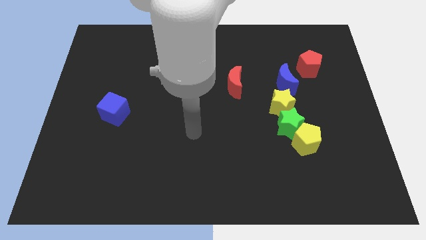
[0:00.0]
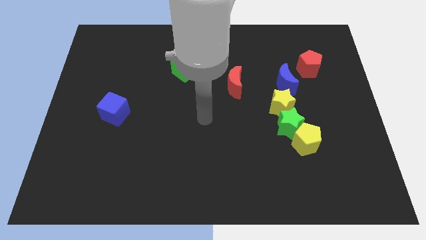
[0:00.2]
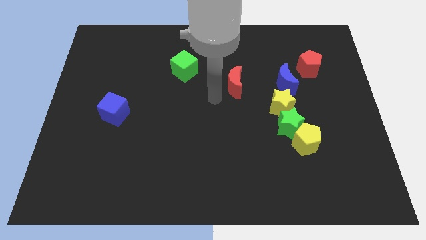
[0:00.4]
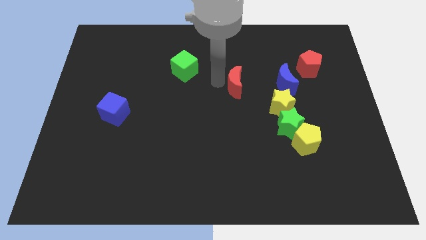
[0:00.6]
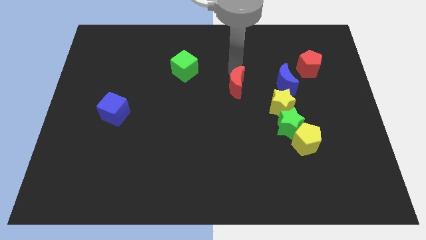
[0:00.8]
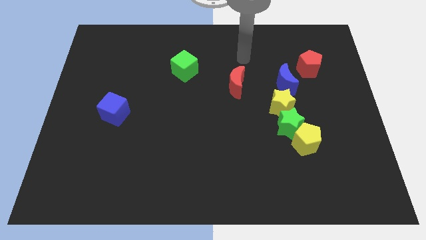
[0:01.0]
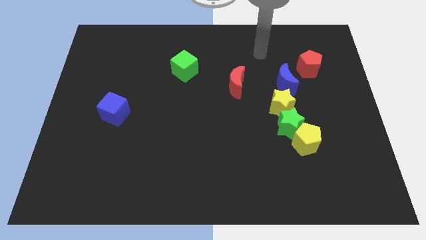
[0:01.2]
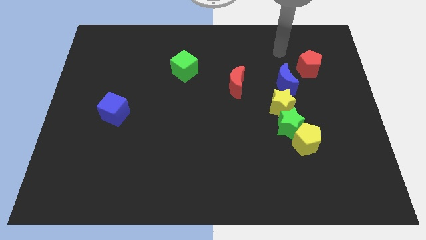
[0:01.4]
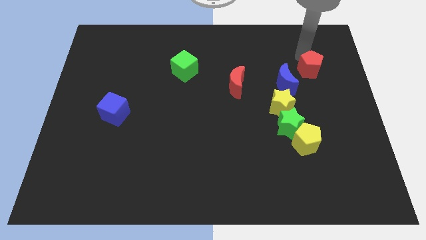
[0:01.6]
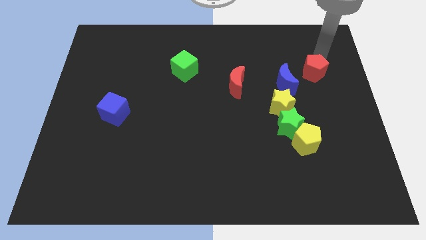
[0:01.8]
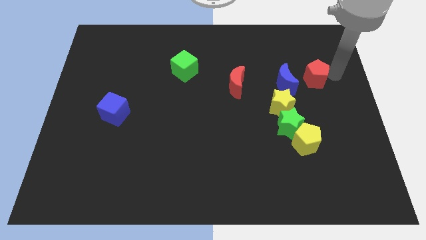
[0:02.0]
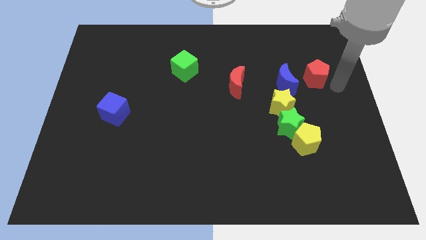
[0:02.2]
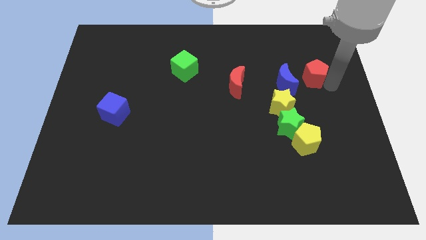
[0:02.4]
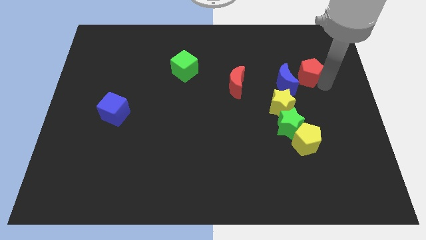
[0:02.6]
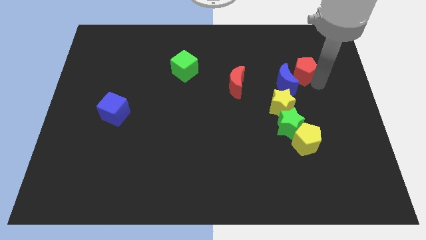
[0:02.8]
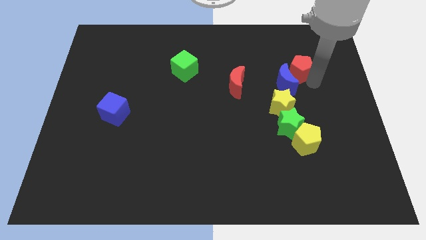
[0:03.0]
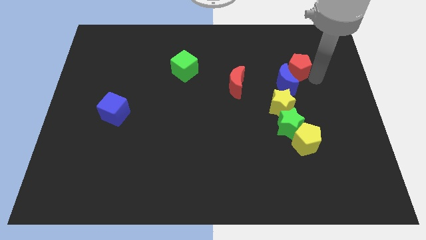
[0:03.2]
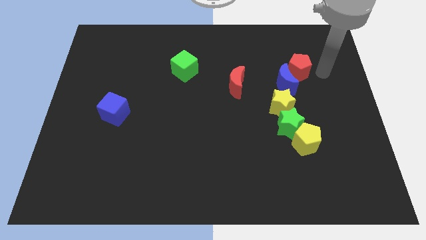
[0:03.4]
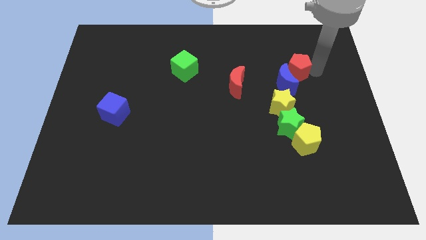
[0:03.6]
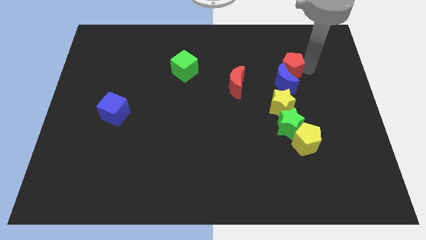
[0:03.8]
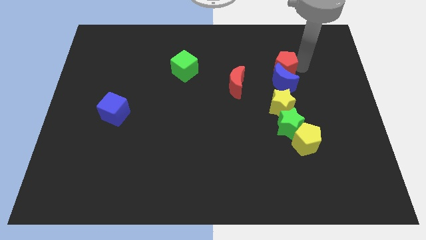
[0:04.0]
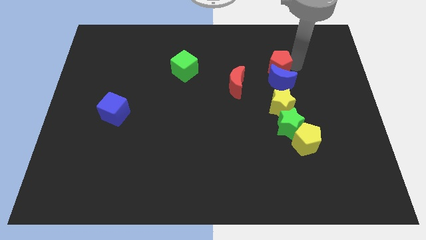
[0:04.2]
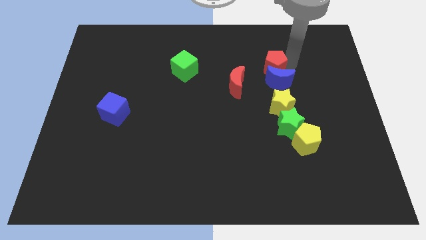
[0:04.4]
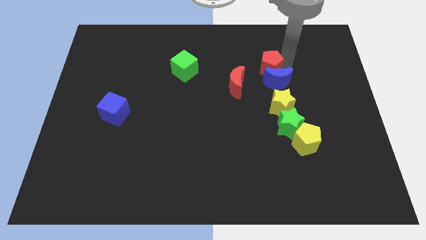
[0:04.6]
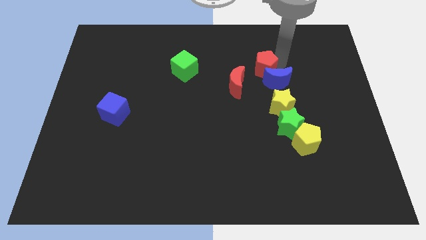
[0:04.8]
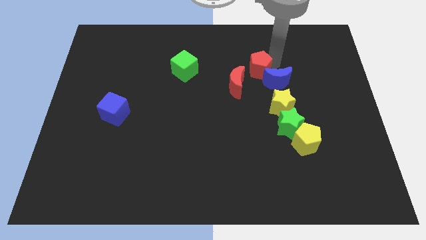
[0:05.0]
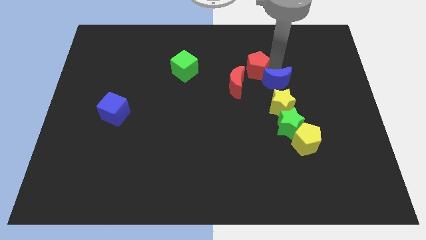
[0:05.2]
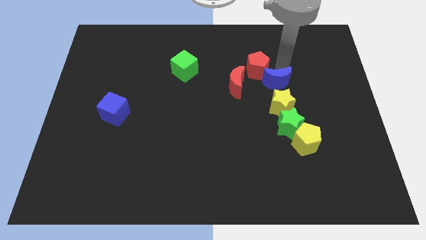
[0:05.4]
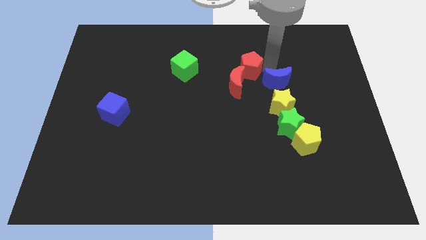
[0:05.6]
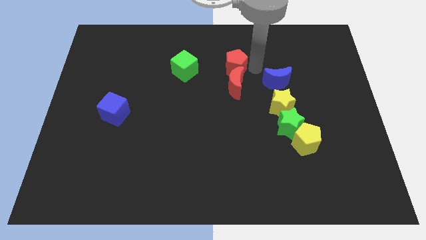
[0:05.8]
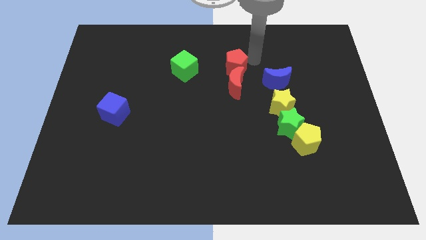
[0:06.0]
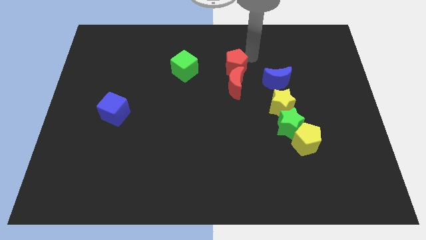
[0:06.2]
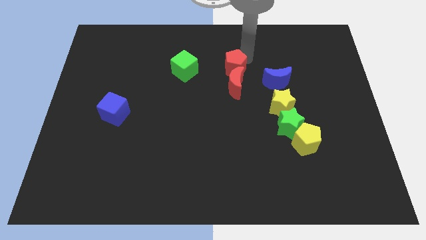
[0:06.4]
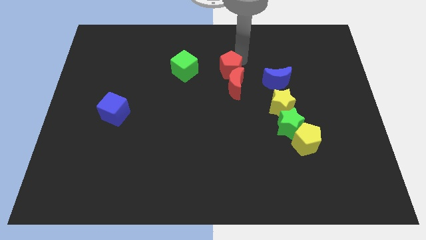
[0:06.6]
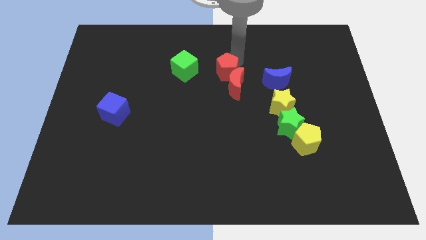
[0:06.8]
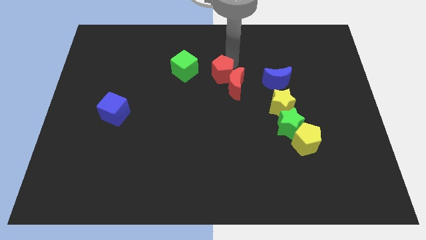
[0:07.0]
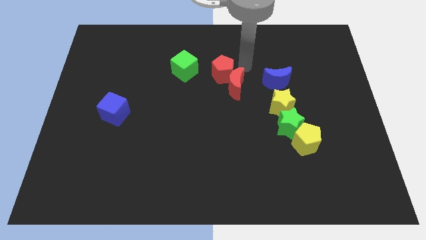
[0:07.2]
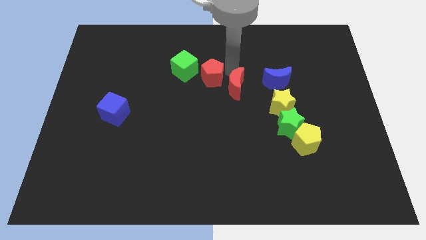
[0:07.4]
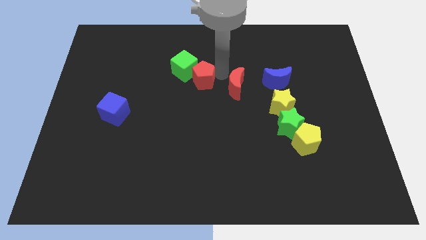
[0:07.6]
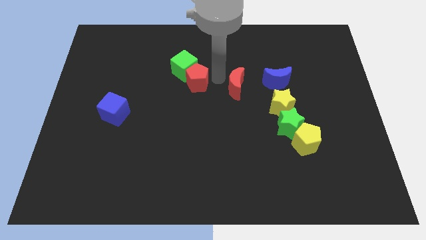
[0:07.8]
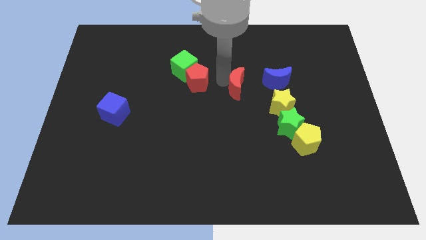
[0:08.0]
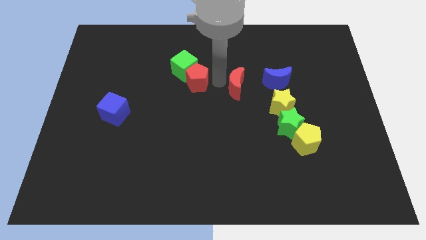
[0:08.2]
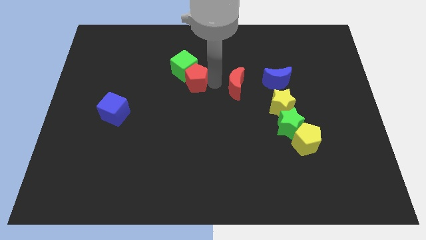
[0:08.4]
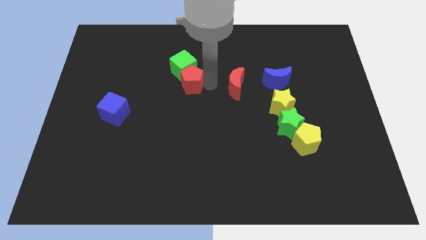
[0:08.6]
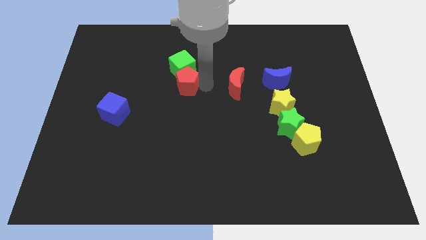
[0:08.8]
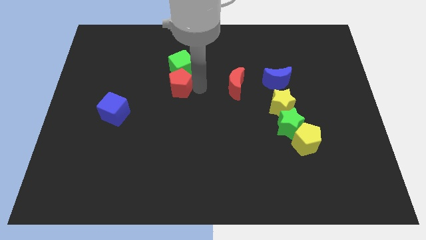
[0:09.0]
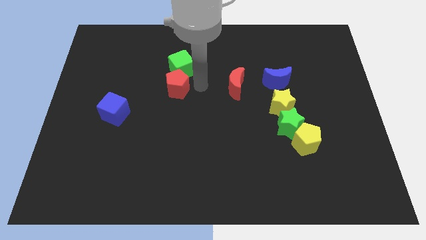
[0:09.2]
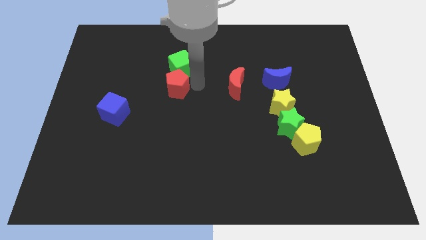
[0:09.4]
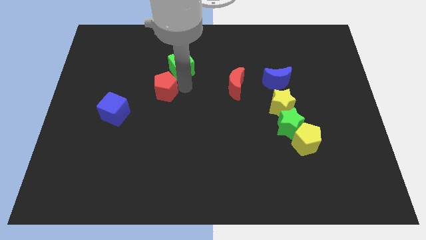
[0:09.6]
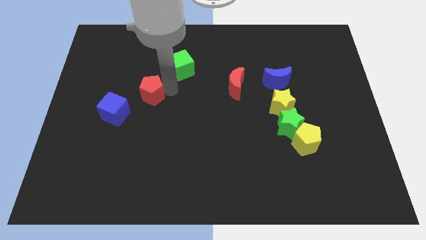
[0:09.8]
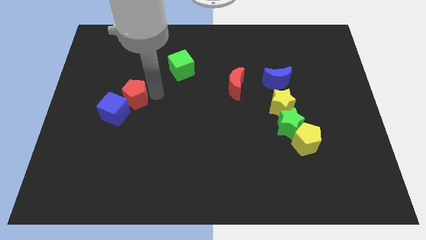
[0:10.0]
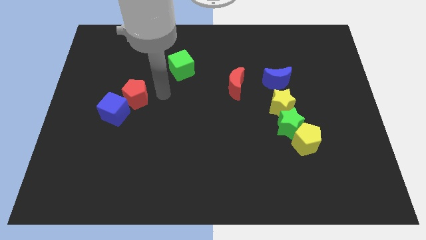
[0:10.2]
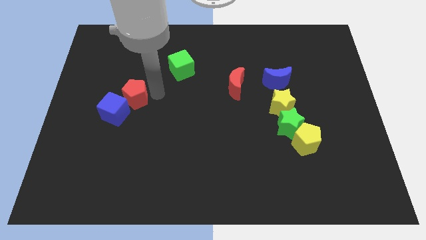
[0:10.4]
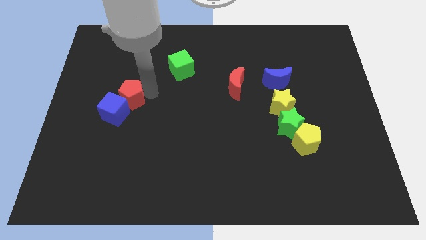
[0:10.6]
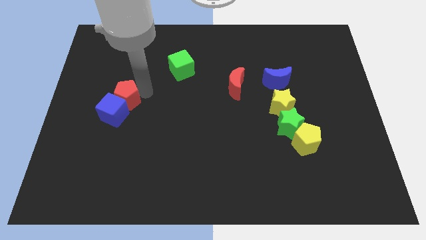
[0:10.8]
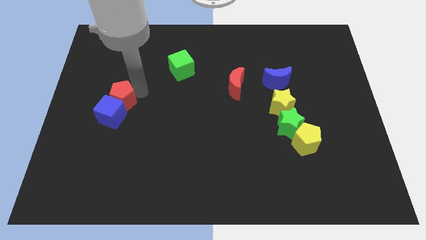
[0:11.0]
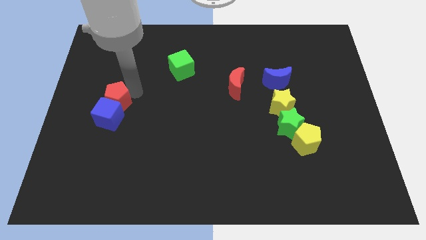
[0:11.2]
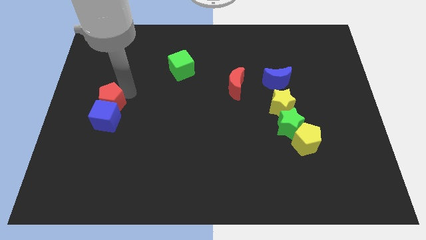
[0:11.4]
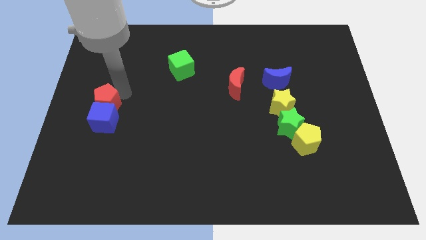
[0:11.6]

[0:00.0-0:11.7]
put the red pentagon to the center left
